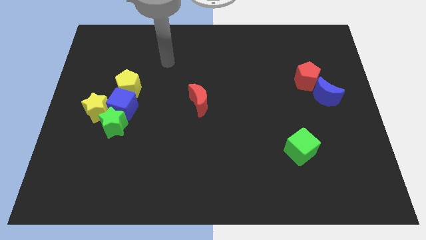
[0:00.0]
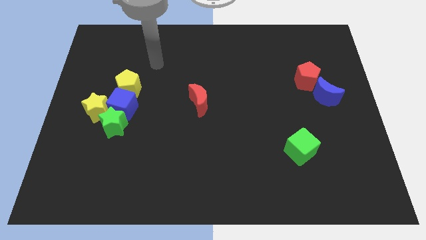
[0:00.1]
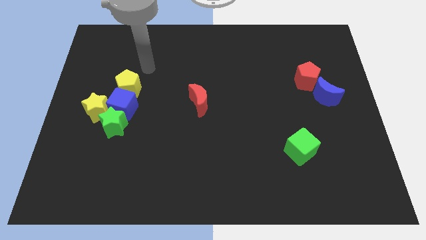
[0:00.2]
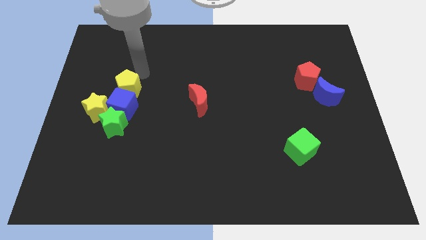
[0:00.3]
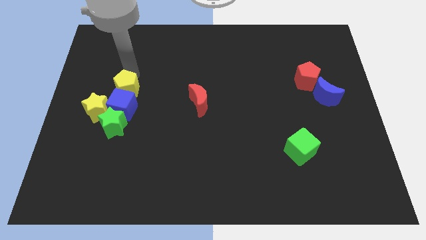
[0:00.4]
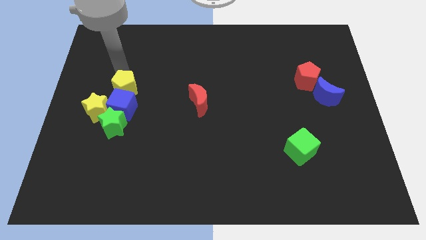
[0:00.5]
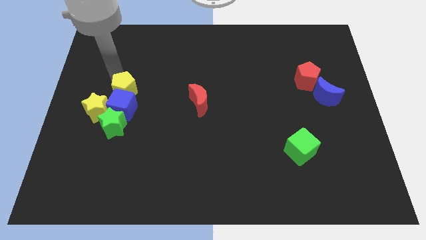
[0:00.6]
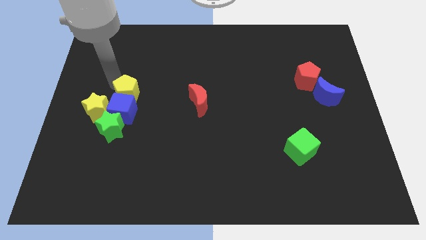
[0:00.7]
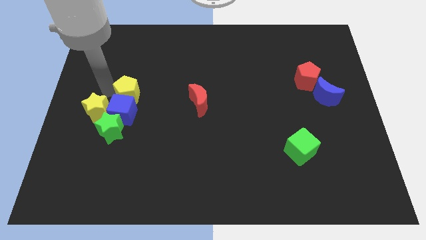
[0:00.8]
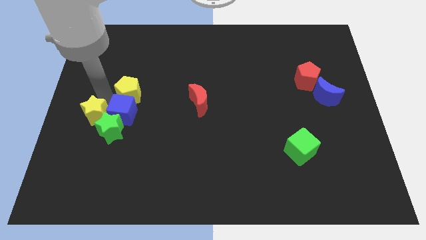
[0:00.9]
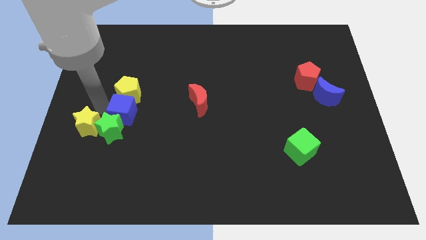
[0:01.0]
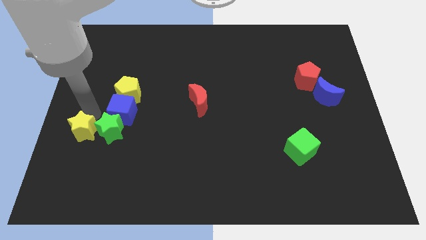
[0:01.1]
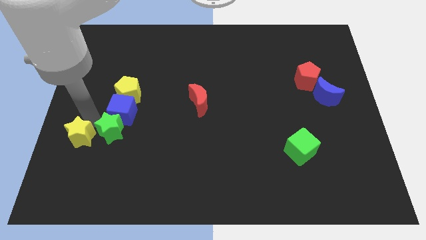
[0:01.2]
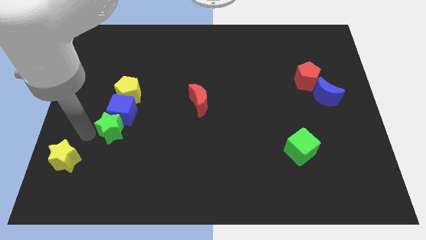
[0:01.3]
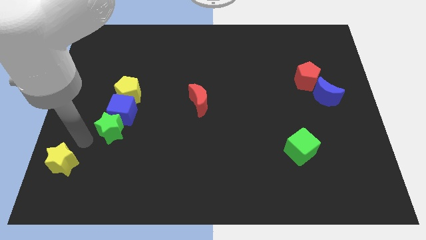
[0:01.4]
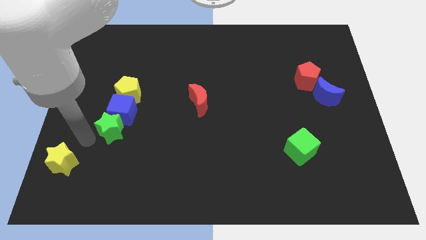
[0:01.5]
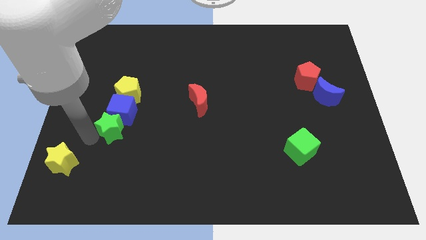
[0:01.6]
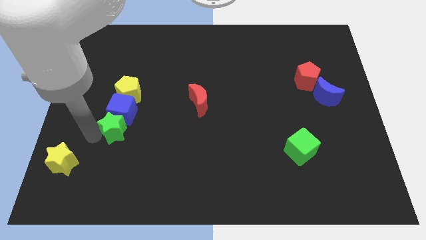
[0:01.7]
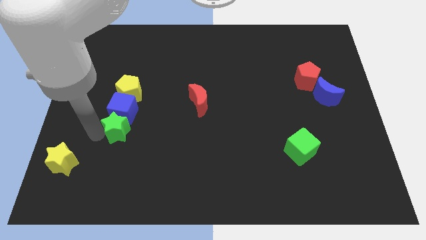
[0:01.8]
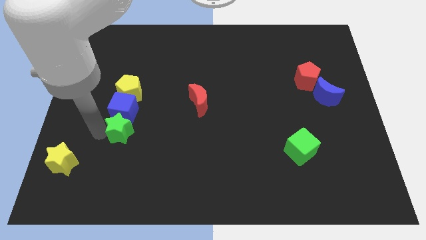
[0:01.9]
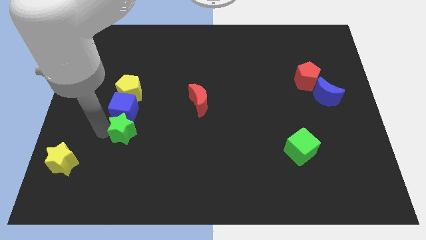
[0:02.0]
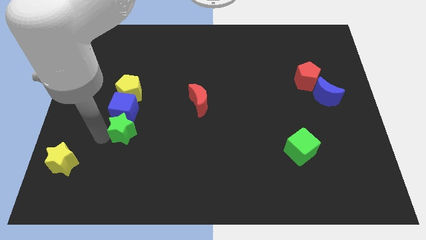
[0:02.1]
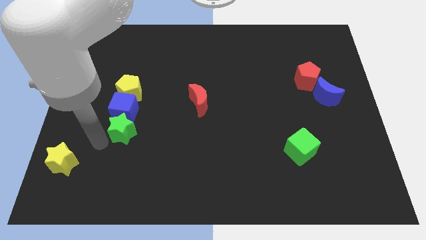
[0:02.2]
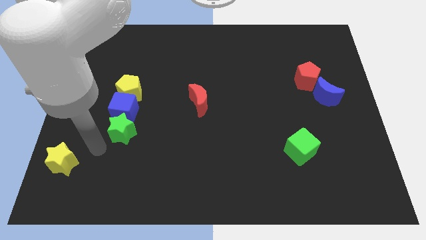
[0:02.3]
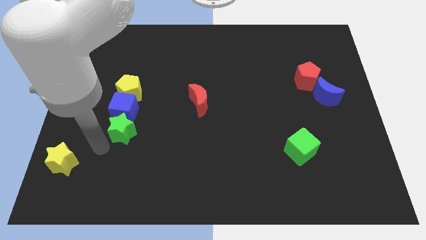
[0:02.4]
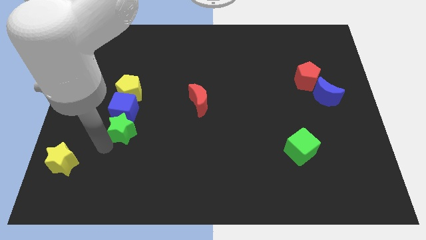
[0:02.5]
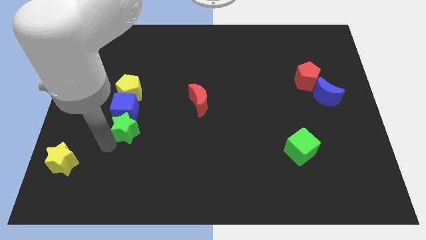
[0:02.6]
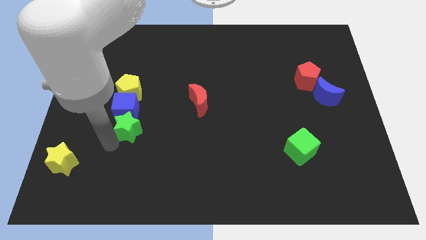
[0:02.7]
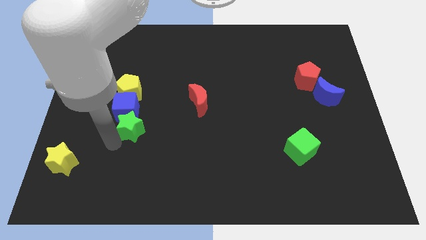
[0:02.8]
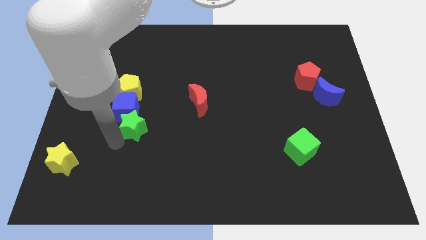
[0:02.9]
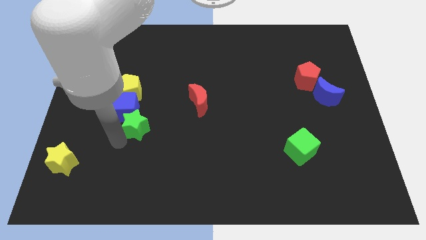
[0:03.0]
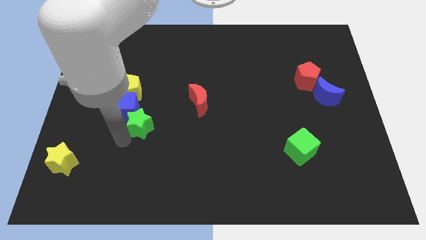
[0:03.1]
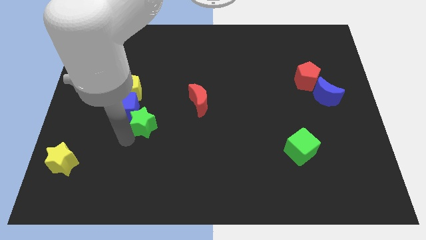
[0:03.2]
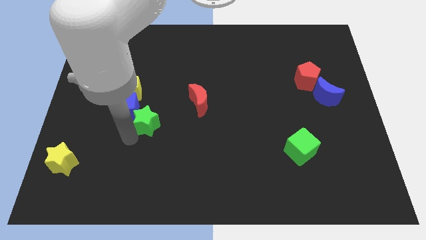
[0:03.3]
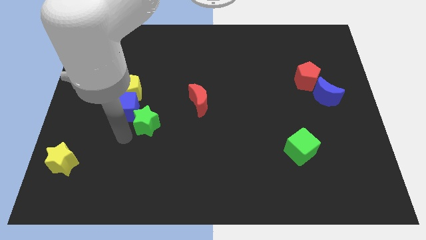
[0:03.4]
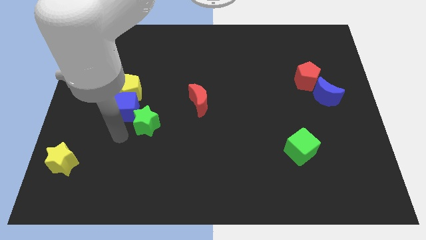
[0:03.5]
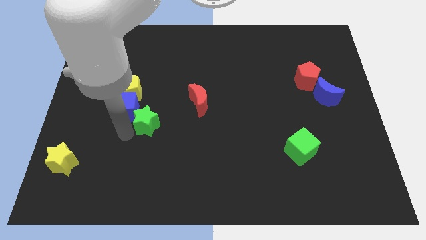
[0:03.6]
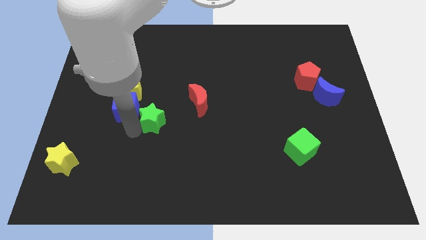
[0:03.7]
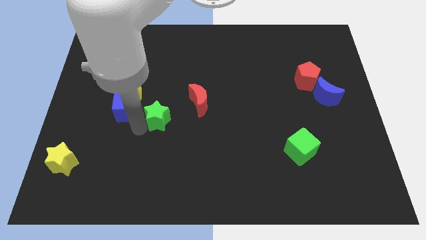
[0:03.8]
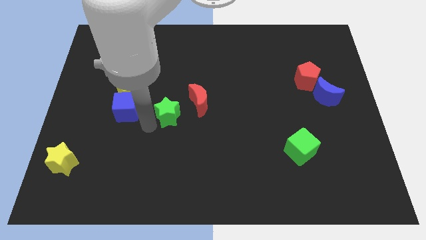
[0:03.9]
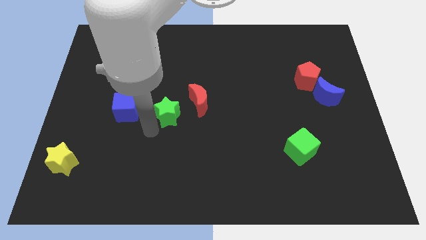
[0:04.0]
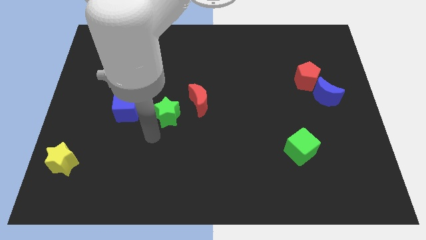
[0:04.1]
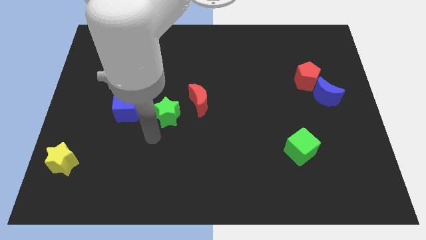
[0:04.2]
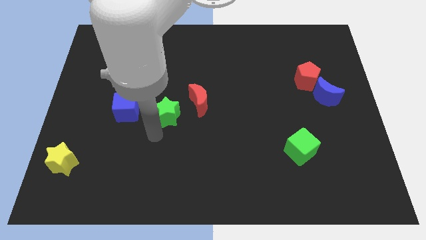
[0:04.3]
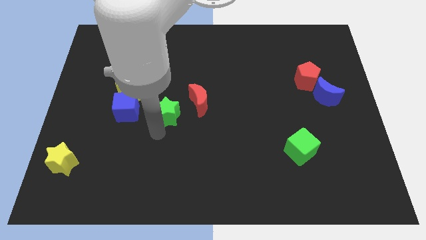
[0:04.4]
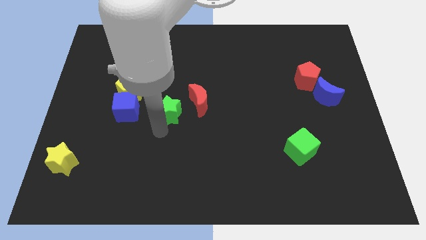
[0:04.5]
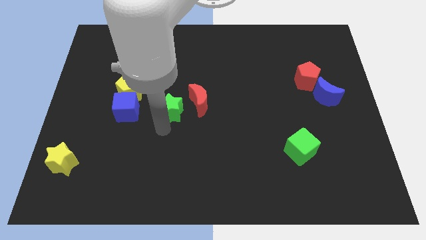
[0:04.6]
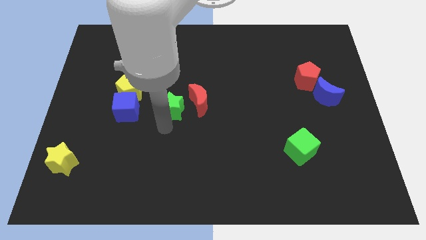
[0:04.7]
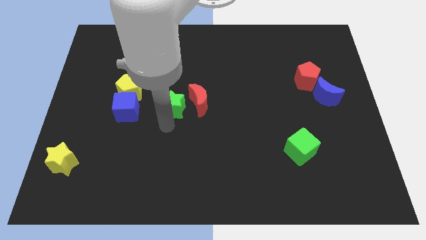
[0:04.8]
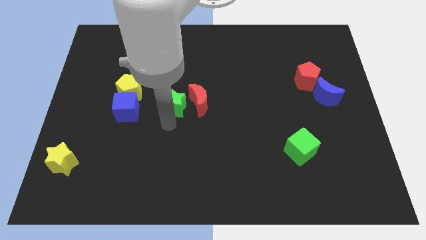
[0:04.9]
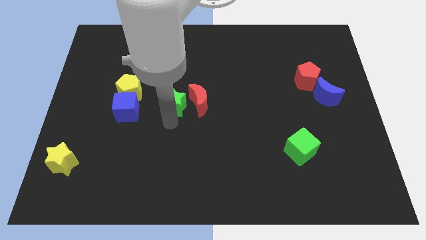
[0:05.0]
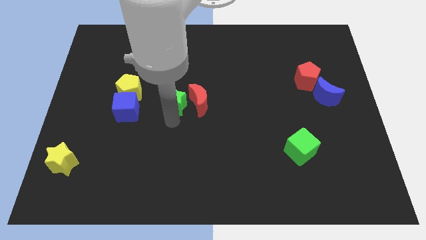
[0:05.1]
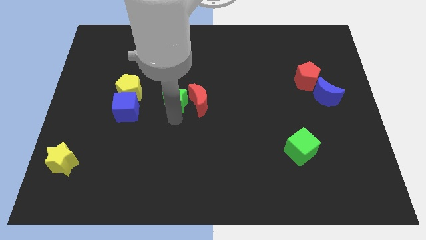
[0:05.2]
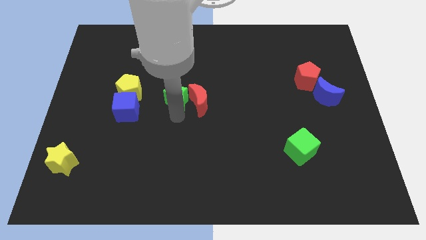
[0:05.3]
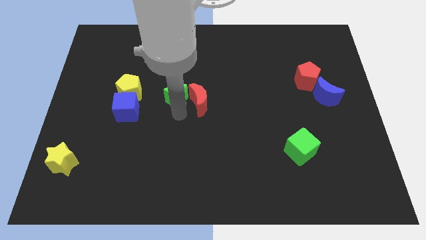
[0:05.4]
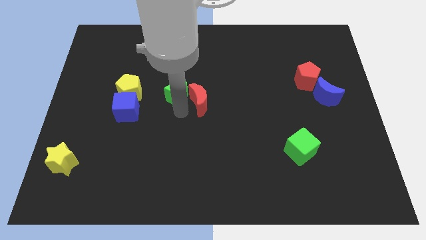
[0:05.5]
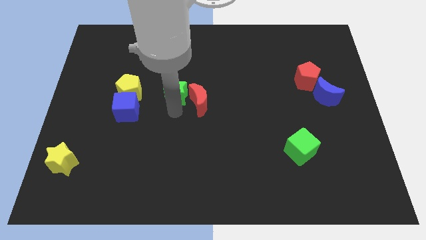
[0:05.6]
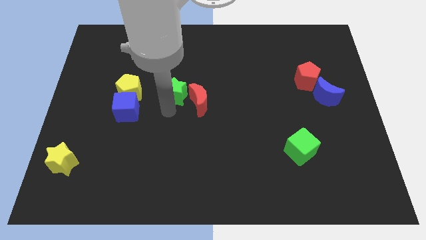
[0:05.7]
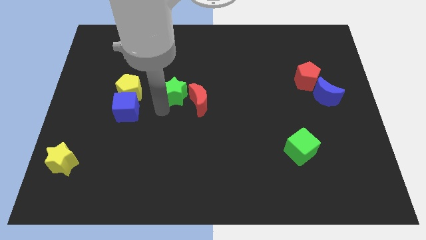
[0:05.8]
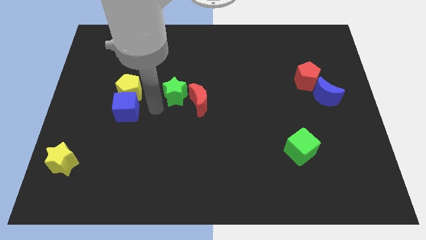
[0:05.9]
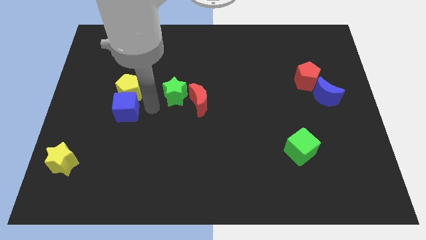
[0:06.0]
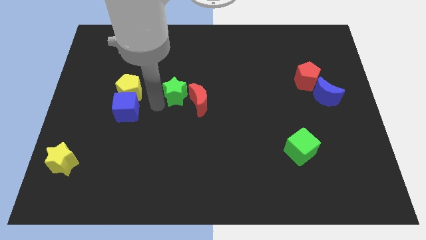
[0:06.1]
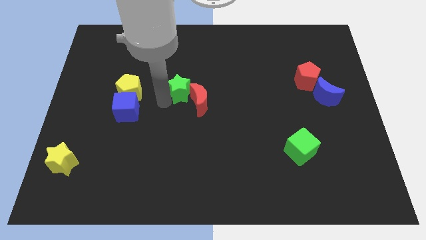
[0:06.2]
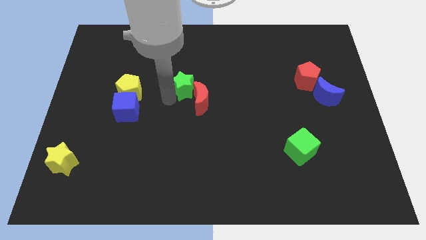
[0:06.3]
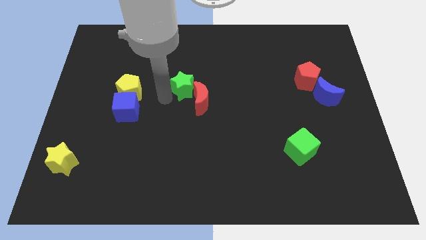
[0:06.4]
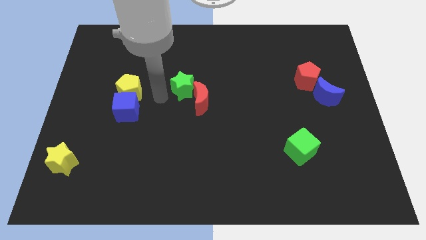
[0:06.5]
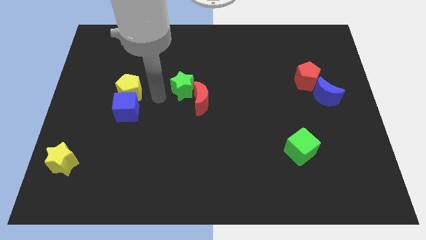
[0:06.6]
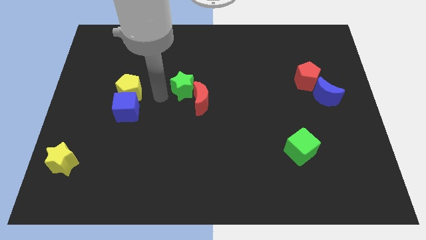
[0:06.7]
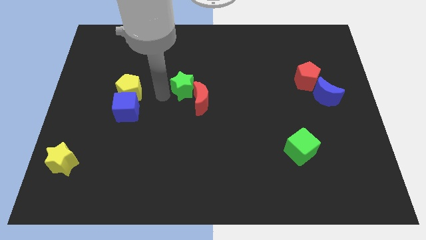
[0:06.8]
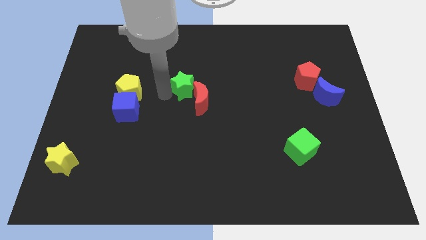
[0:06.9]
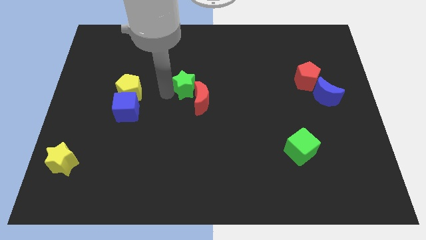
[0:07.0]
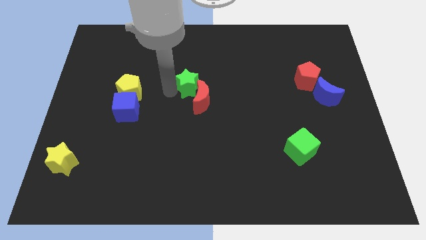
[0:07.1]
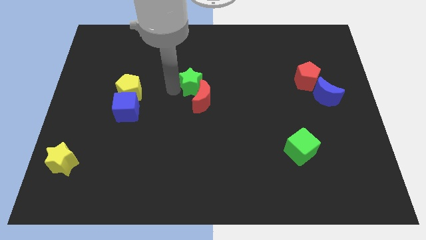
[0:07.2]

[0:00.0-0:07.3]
move the green star diagonally up and right

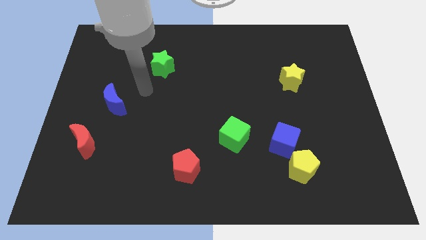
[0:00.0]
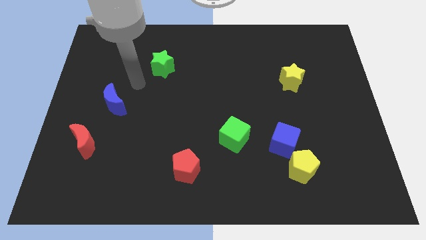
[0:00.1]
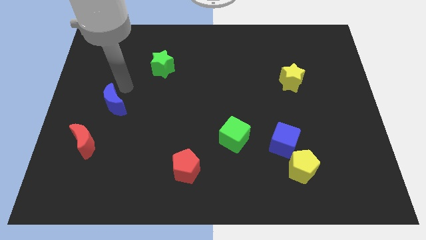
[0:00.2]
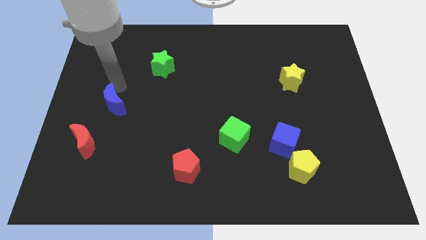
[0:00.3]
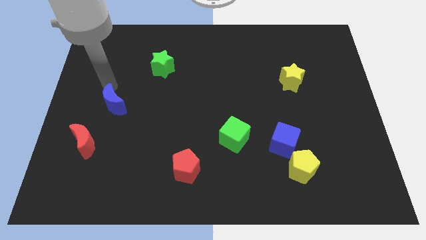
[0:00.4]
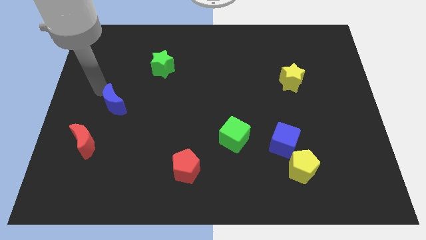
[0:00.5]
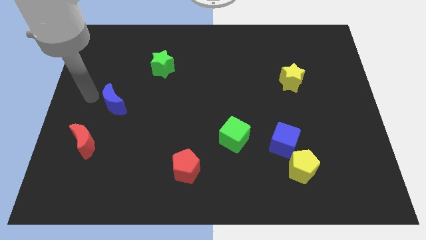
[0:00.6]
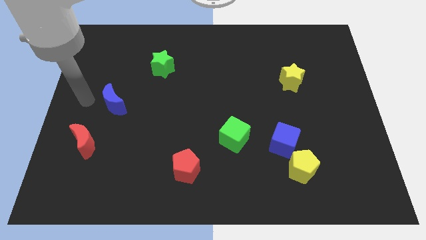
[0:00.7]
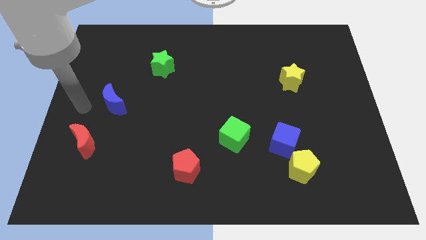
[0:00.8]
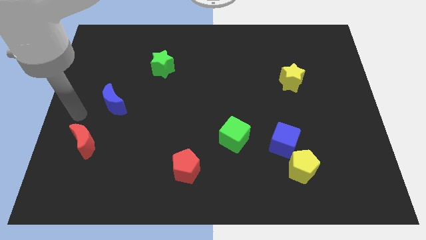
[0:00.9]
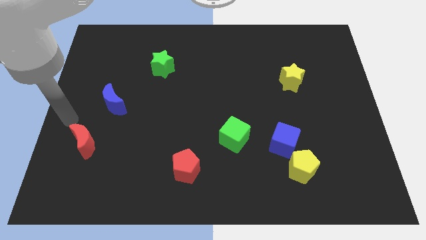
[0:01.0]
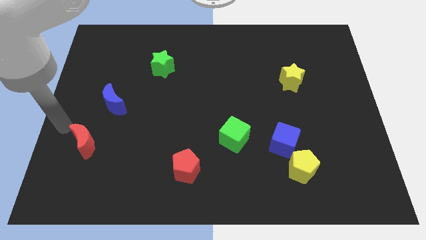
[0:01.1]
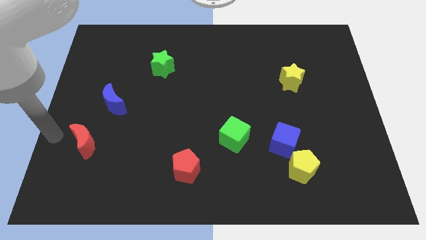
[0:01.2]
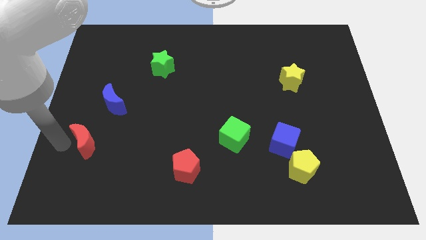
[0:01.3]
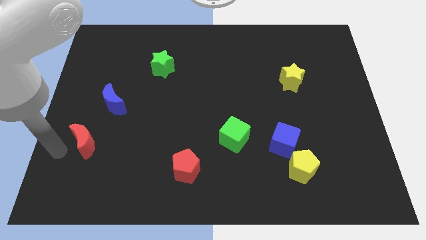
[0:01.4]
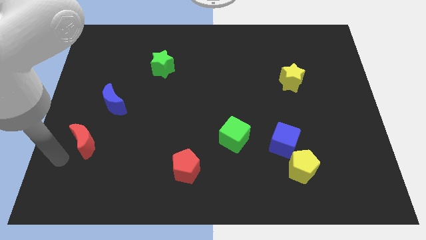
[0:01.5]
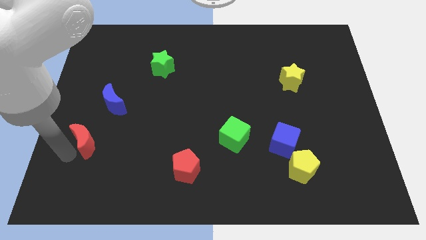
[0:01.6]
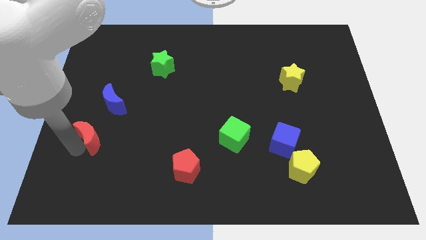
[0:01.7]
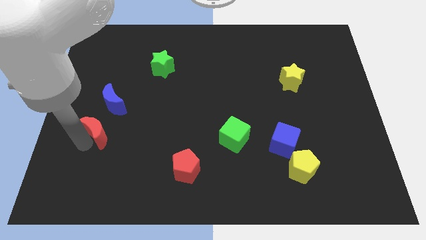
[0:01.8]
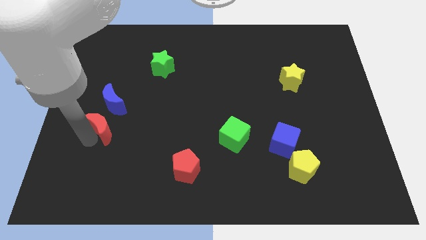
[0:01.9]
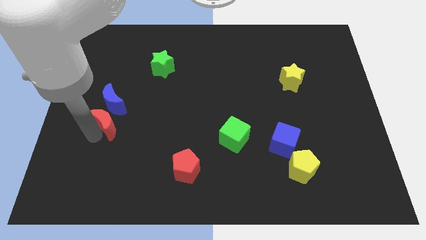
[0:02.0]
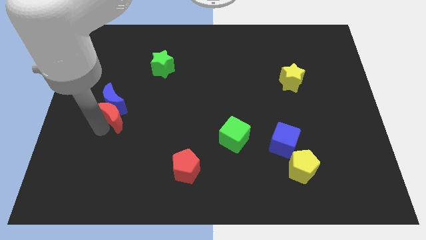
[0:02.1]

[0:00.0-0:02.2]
slide the red moon upwards and right diagonally somewhat
